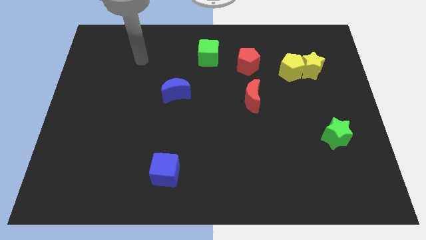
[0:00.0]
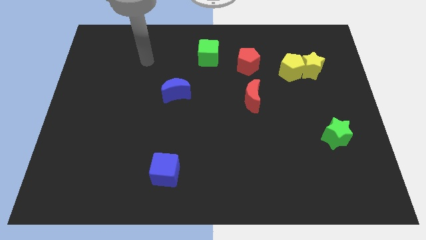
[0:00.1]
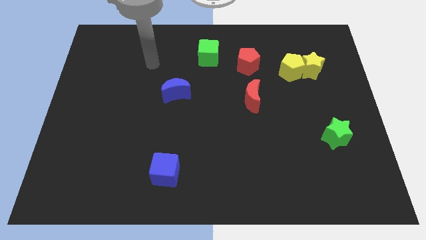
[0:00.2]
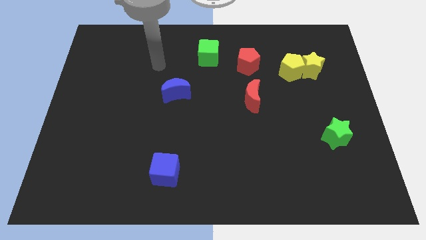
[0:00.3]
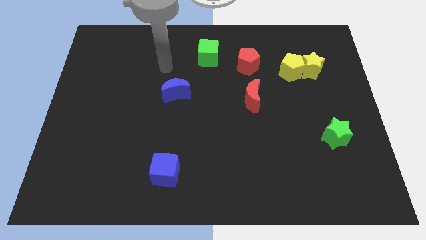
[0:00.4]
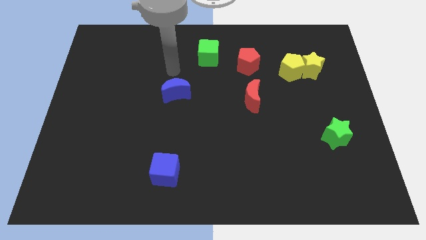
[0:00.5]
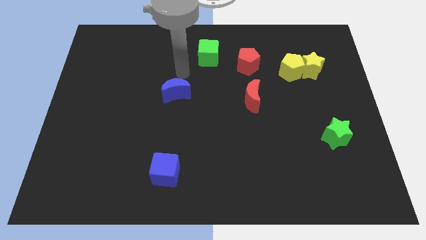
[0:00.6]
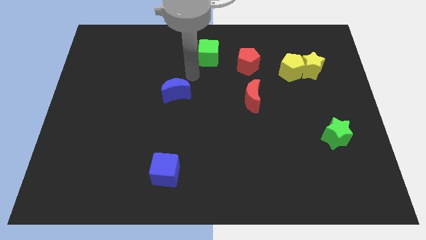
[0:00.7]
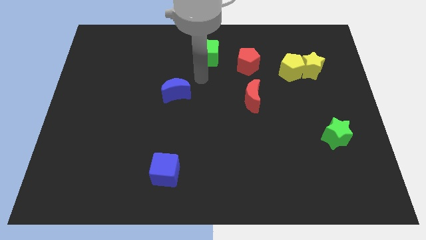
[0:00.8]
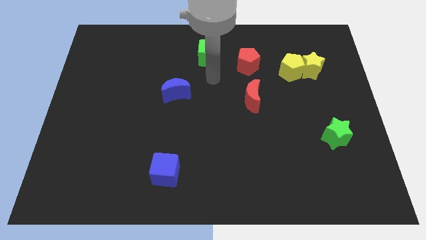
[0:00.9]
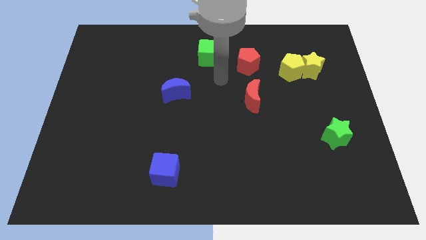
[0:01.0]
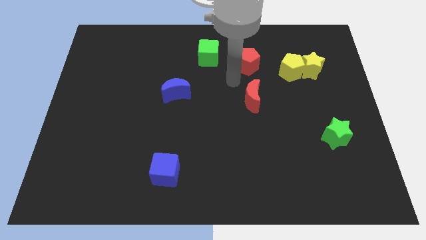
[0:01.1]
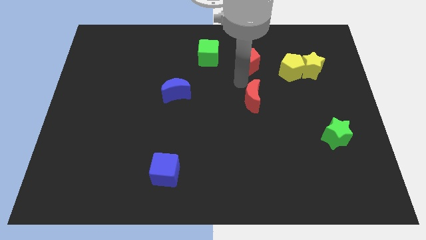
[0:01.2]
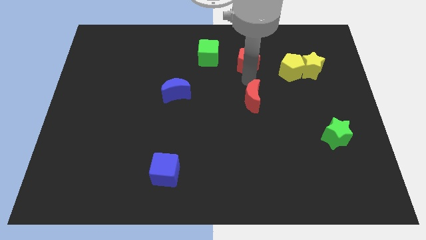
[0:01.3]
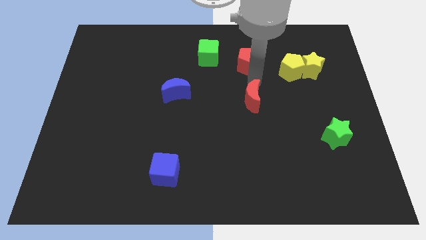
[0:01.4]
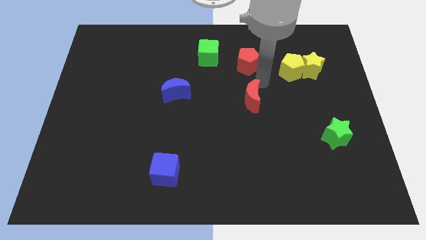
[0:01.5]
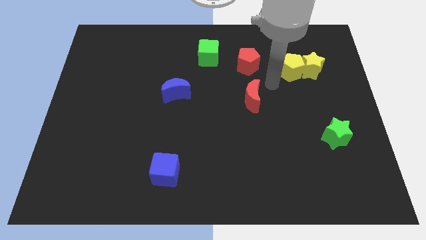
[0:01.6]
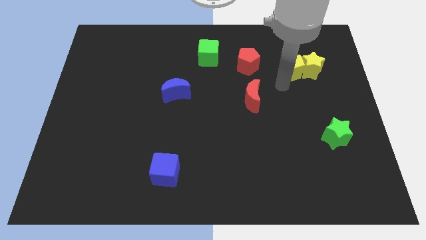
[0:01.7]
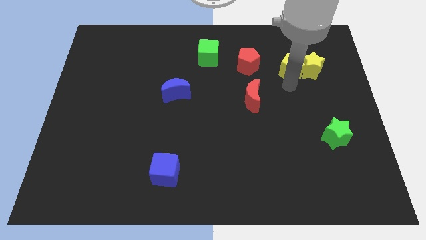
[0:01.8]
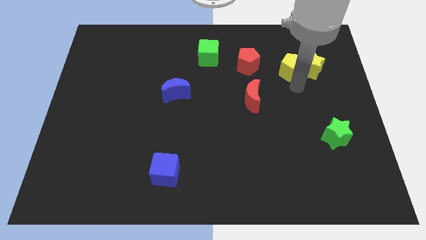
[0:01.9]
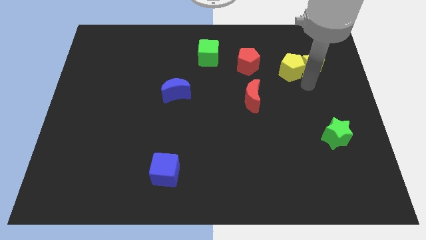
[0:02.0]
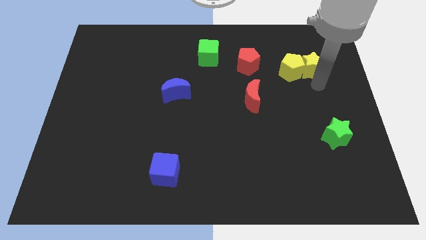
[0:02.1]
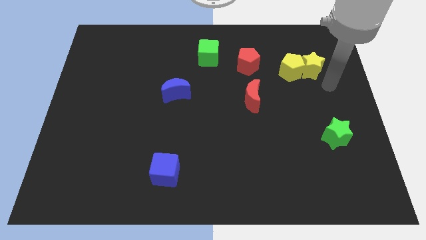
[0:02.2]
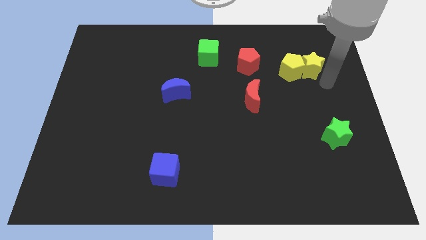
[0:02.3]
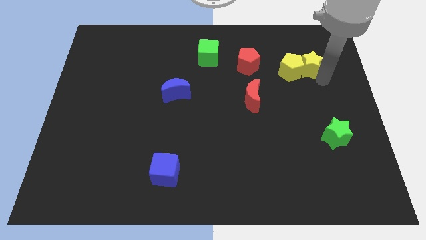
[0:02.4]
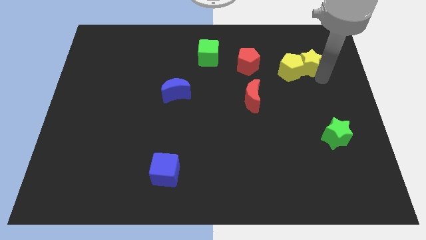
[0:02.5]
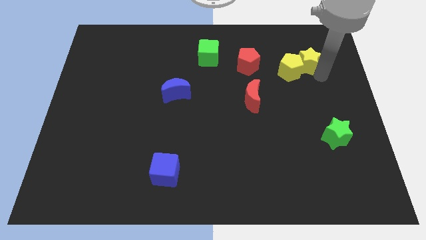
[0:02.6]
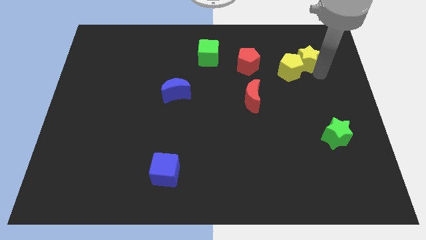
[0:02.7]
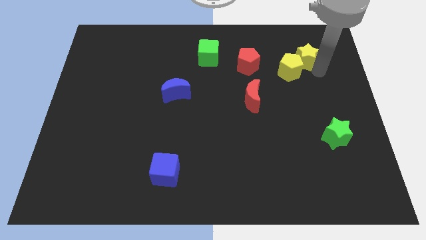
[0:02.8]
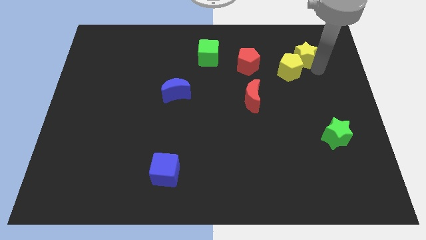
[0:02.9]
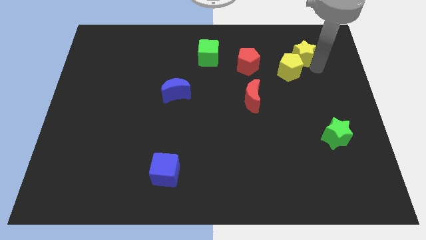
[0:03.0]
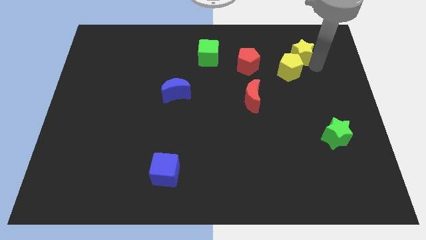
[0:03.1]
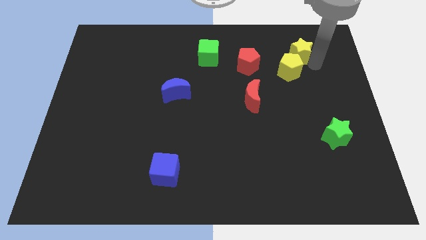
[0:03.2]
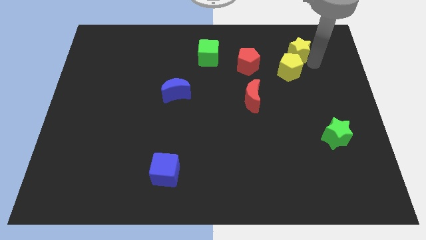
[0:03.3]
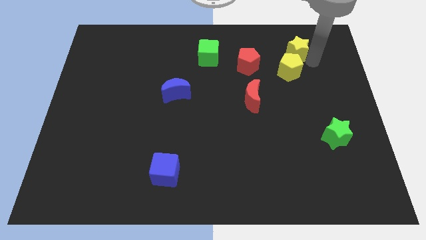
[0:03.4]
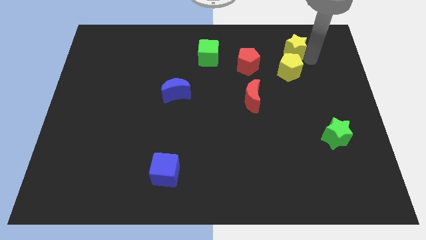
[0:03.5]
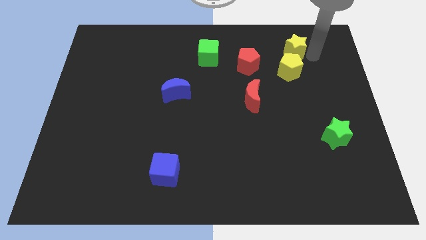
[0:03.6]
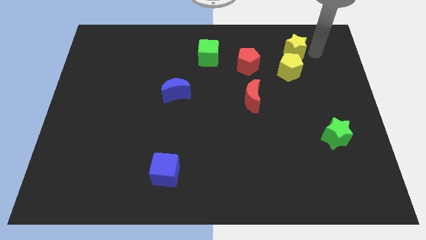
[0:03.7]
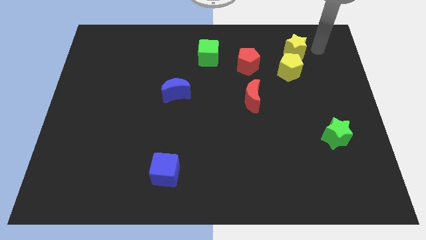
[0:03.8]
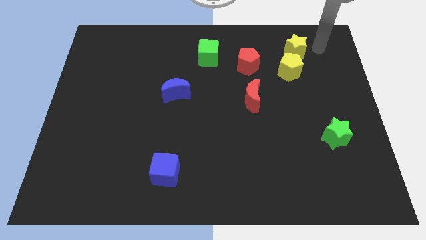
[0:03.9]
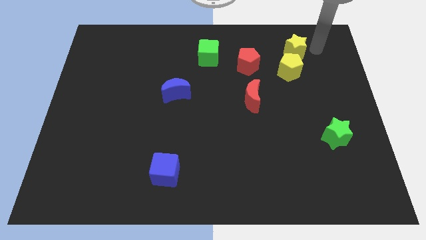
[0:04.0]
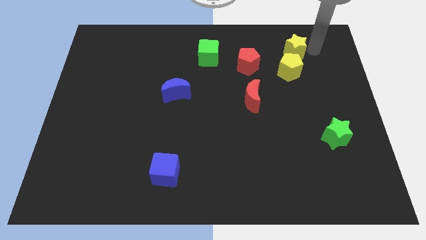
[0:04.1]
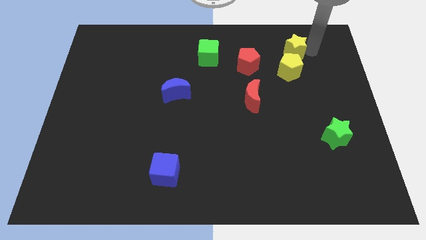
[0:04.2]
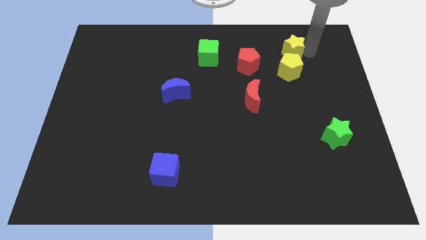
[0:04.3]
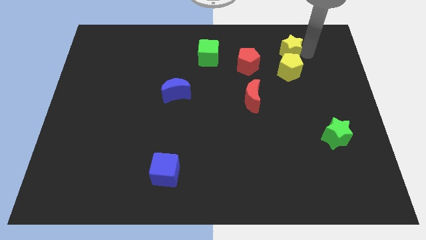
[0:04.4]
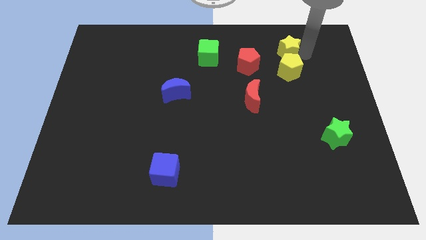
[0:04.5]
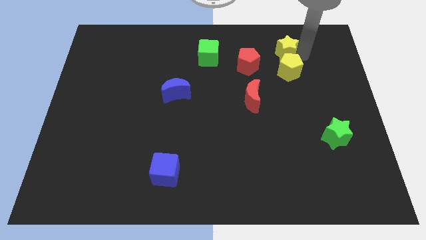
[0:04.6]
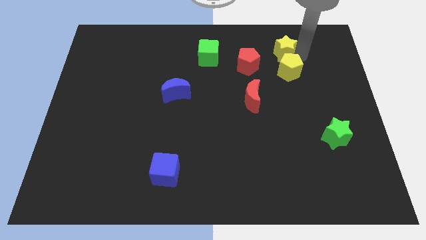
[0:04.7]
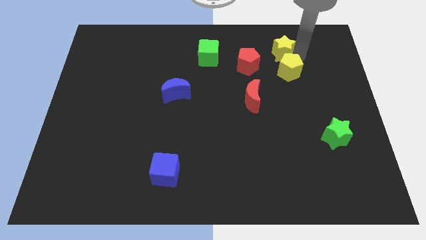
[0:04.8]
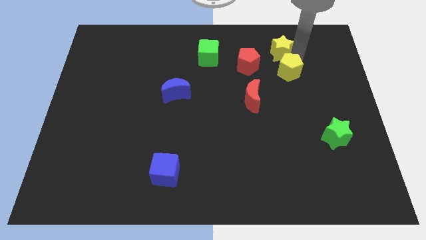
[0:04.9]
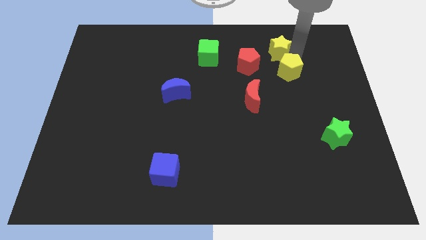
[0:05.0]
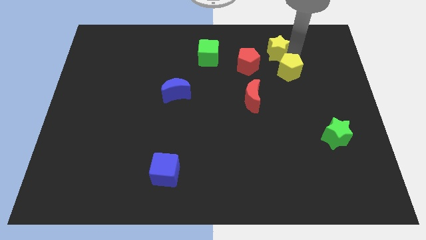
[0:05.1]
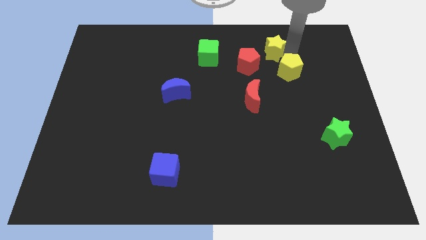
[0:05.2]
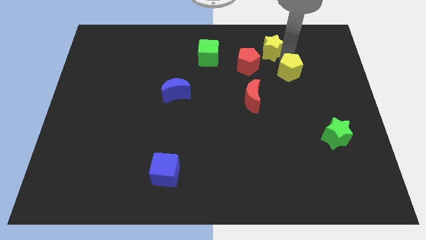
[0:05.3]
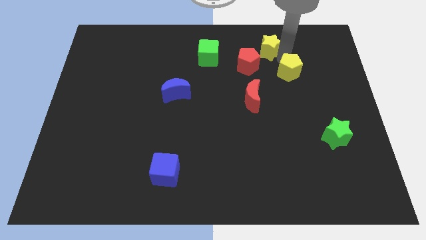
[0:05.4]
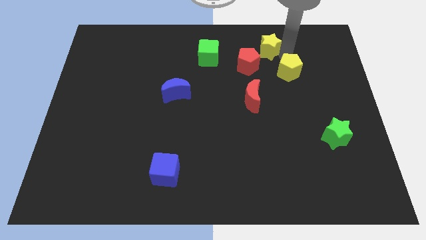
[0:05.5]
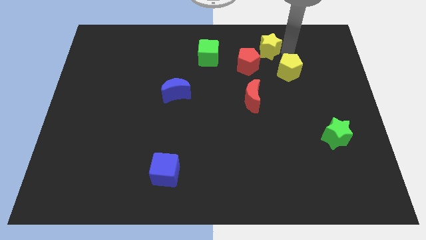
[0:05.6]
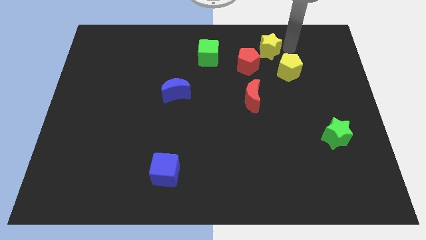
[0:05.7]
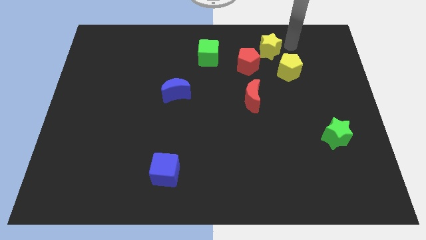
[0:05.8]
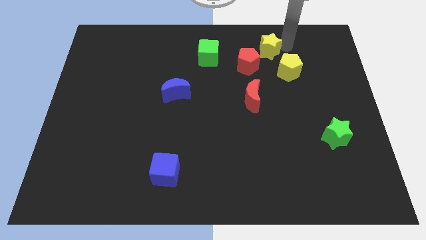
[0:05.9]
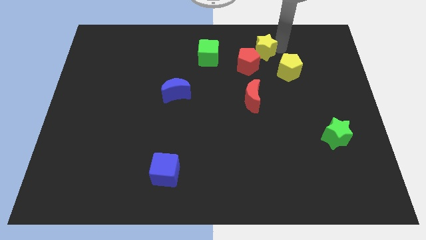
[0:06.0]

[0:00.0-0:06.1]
push the yellow star to the right side of the green cube

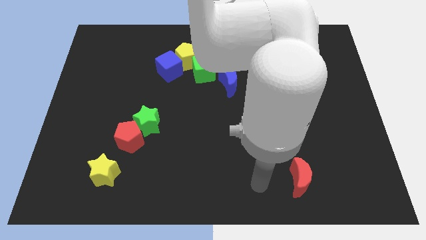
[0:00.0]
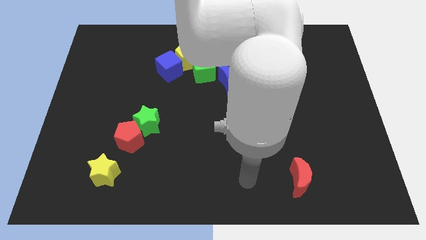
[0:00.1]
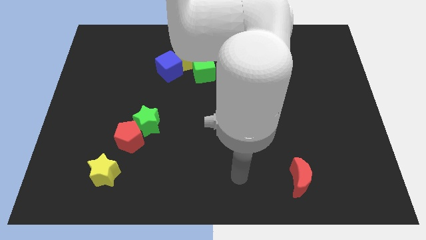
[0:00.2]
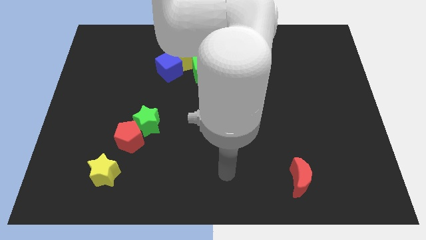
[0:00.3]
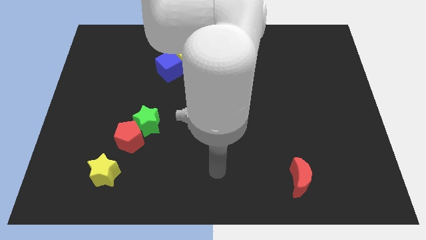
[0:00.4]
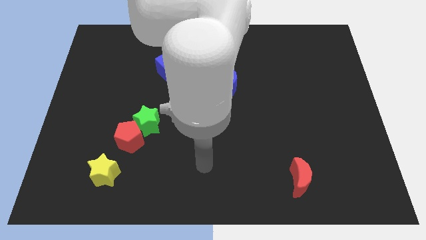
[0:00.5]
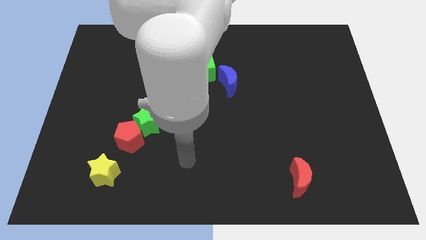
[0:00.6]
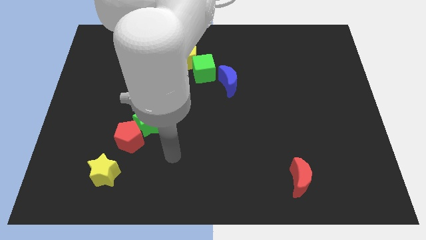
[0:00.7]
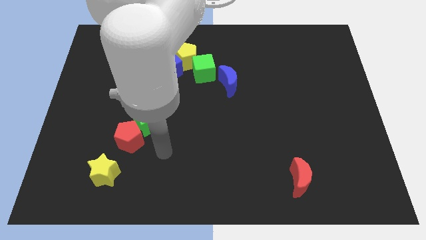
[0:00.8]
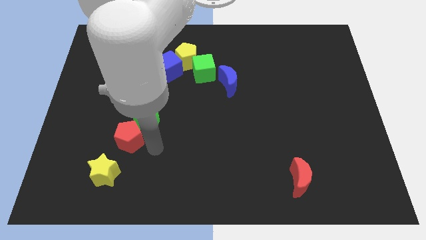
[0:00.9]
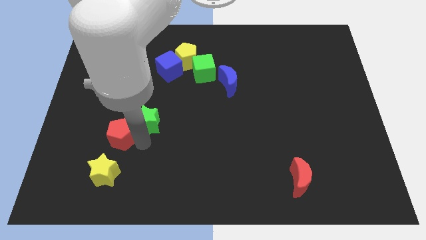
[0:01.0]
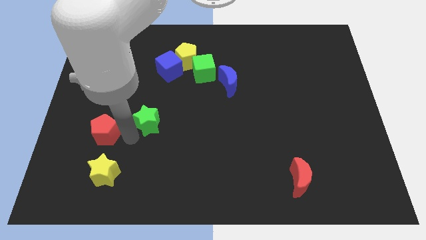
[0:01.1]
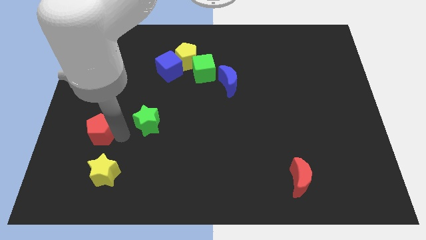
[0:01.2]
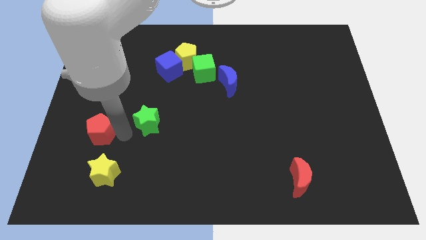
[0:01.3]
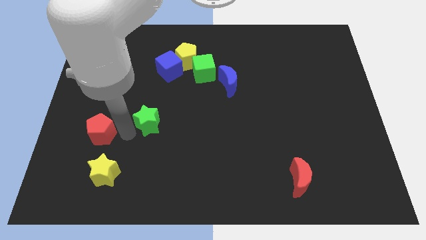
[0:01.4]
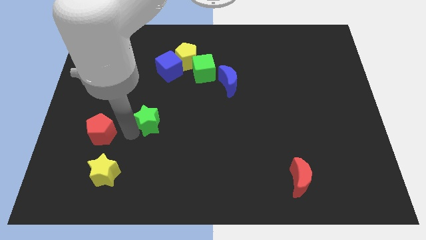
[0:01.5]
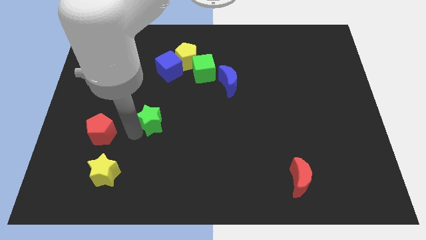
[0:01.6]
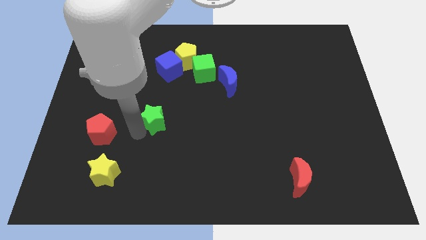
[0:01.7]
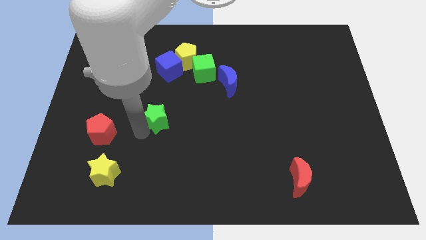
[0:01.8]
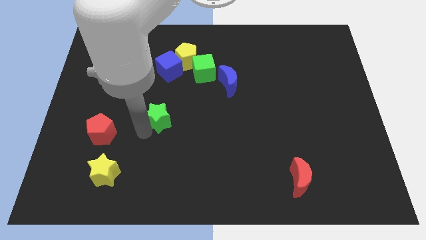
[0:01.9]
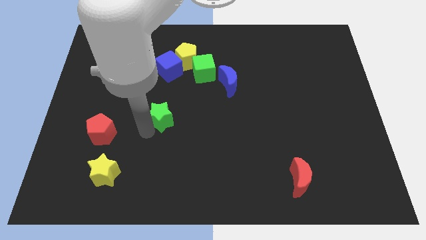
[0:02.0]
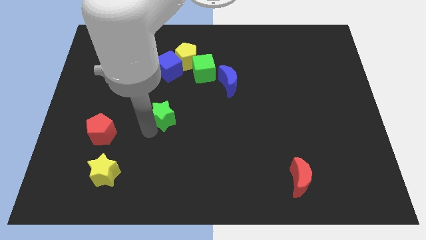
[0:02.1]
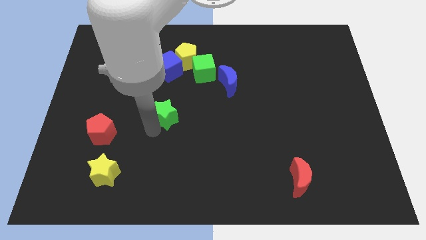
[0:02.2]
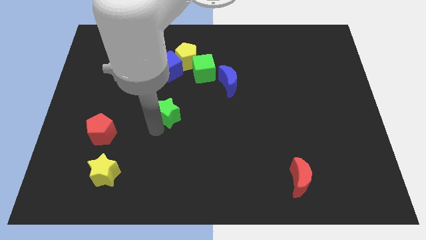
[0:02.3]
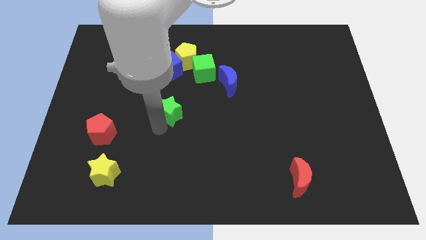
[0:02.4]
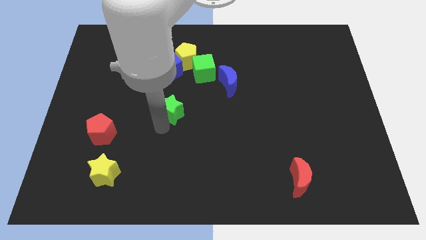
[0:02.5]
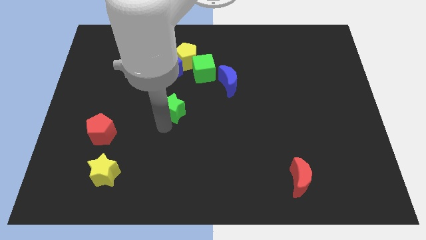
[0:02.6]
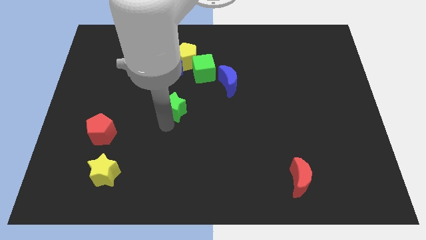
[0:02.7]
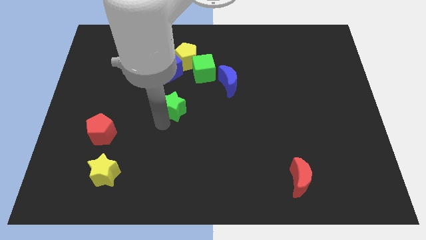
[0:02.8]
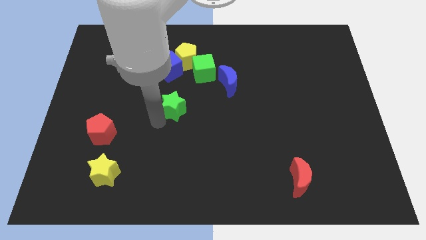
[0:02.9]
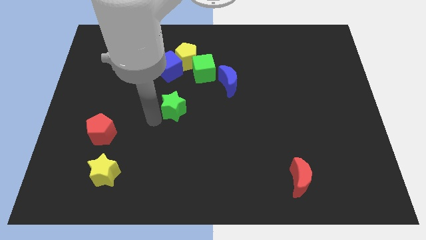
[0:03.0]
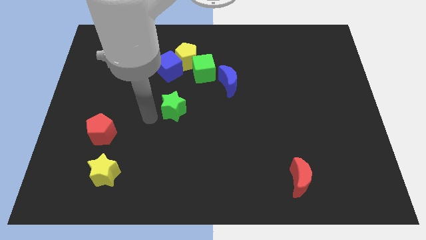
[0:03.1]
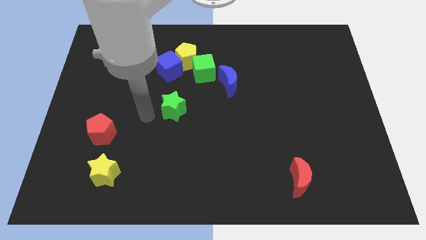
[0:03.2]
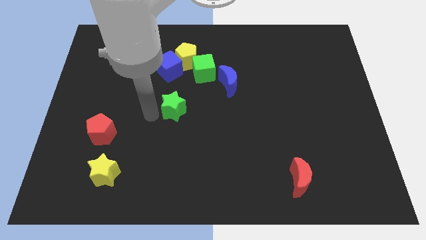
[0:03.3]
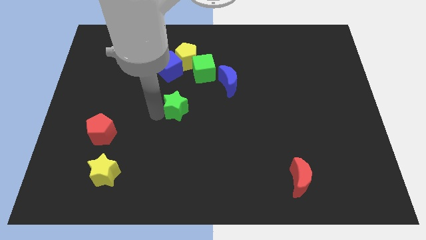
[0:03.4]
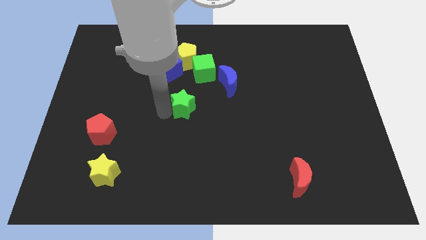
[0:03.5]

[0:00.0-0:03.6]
push the green star to the bottom of the green cube
